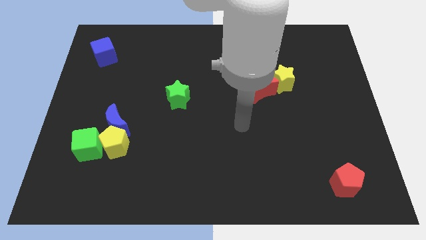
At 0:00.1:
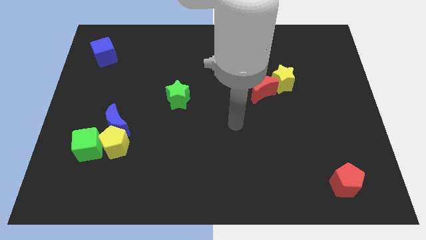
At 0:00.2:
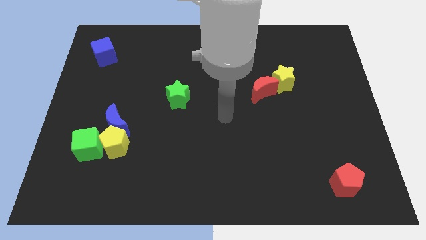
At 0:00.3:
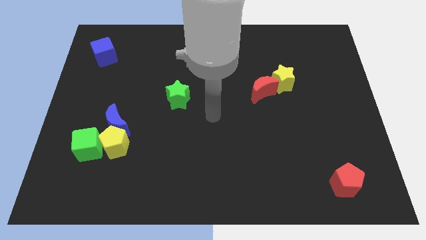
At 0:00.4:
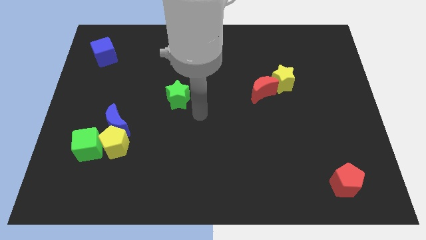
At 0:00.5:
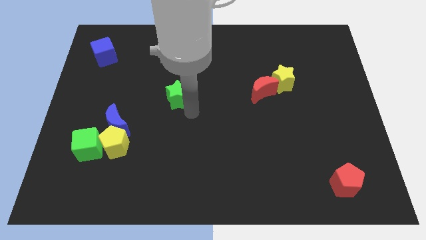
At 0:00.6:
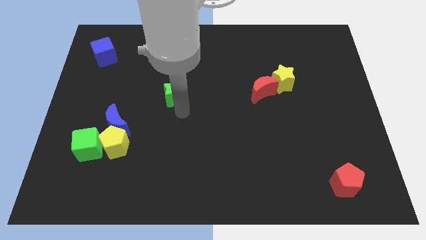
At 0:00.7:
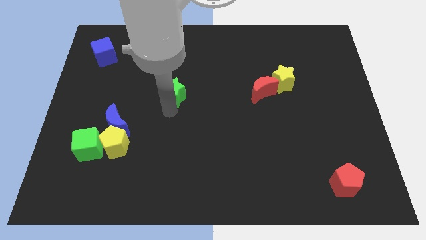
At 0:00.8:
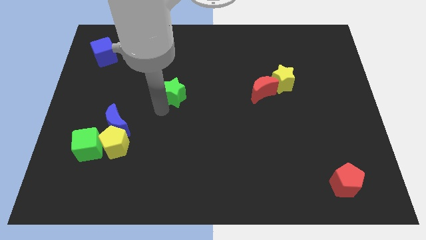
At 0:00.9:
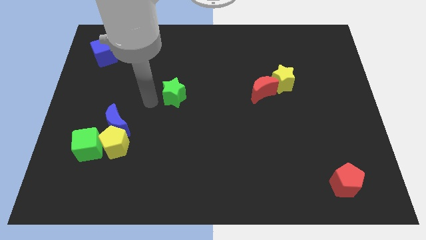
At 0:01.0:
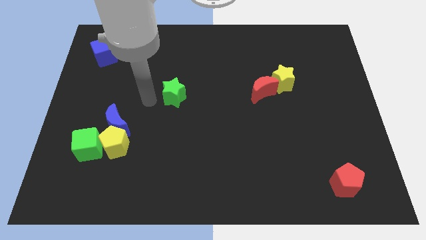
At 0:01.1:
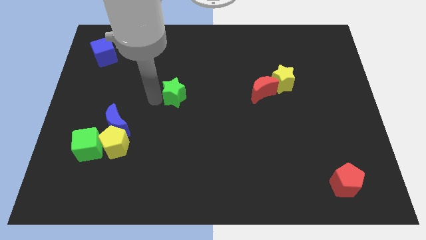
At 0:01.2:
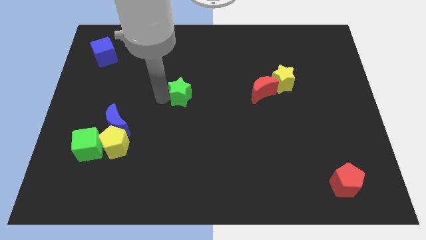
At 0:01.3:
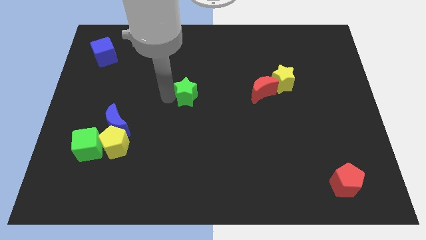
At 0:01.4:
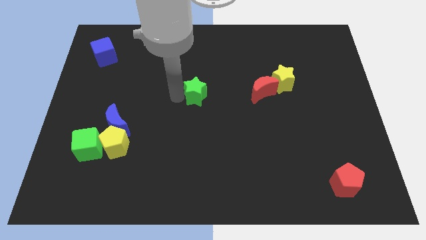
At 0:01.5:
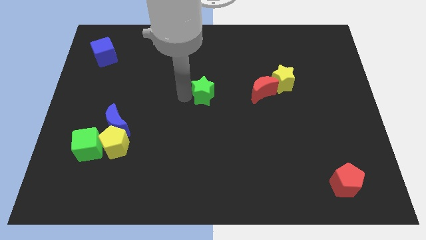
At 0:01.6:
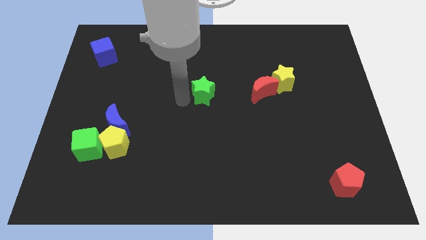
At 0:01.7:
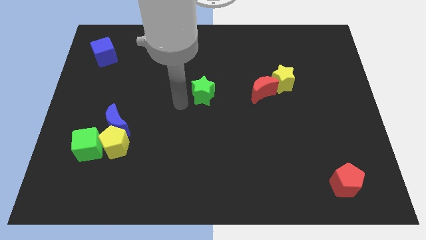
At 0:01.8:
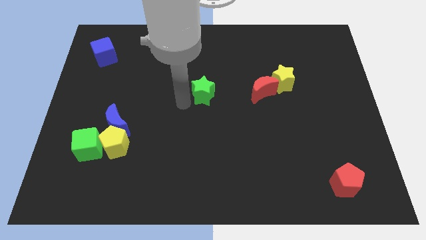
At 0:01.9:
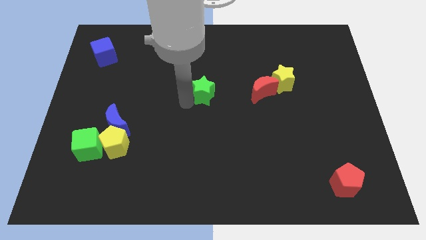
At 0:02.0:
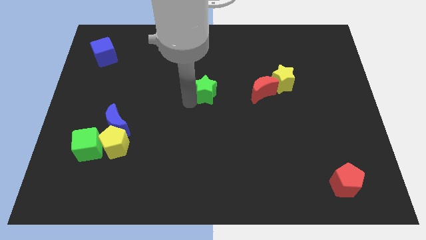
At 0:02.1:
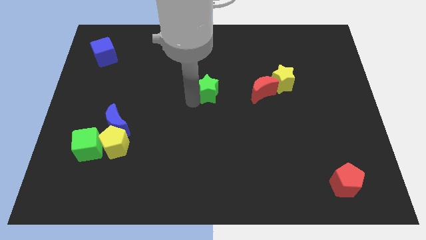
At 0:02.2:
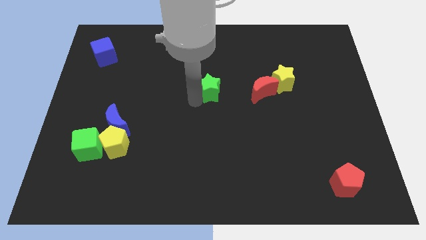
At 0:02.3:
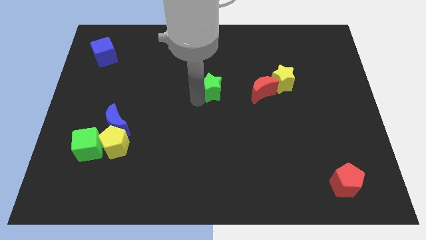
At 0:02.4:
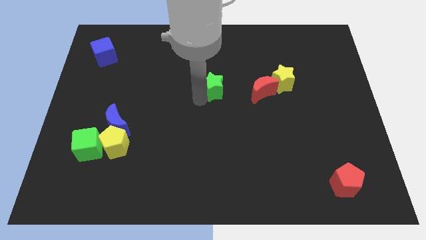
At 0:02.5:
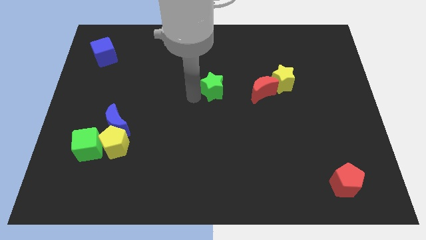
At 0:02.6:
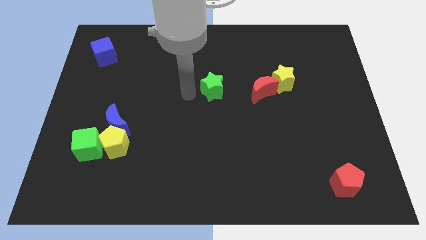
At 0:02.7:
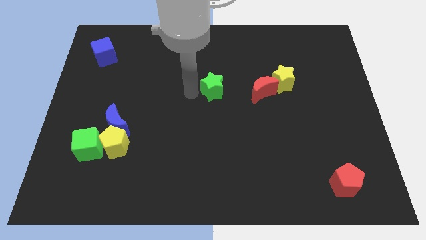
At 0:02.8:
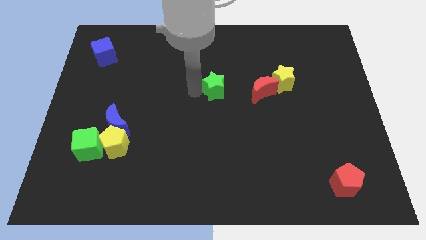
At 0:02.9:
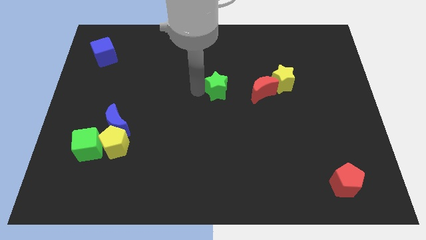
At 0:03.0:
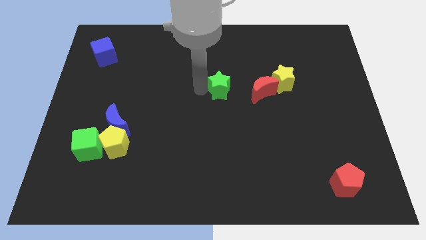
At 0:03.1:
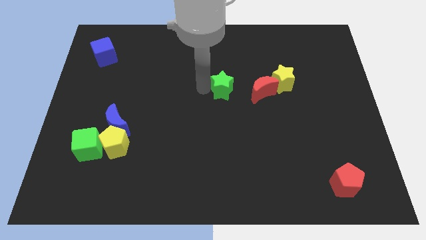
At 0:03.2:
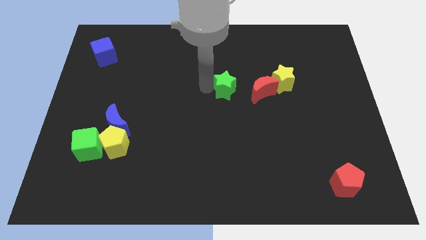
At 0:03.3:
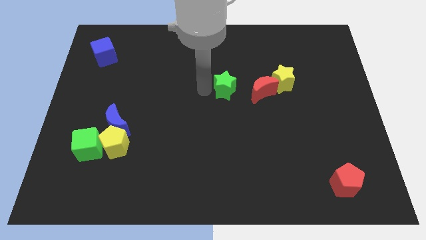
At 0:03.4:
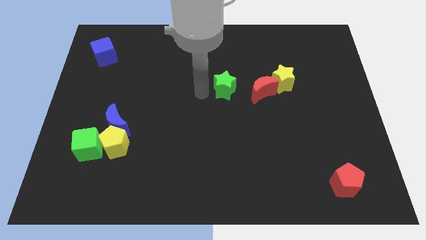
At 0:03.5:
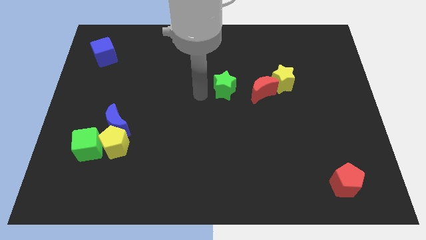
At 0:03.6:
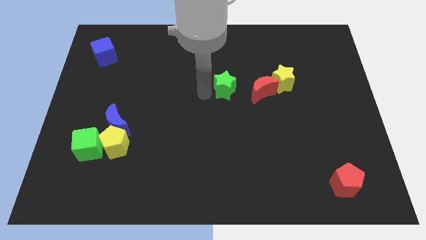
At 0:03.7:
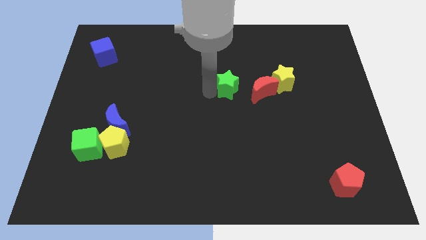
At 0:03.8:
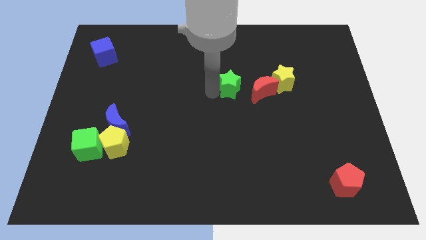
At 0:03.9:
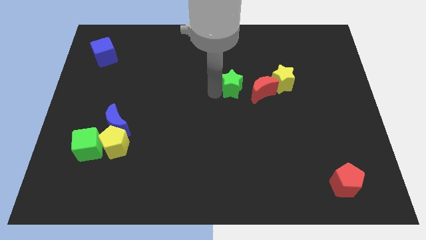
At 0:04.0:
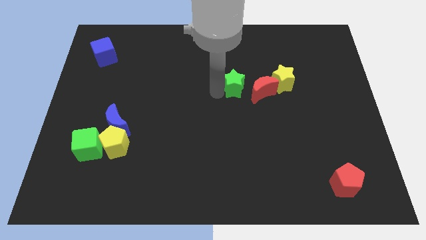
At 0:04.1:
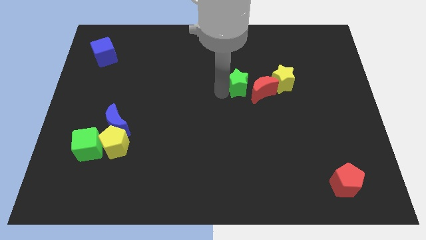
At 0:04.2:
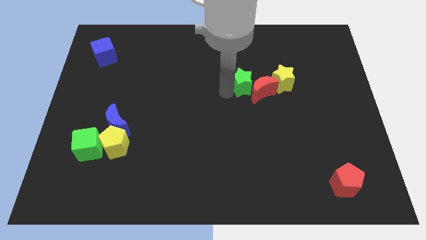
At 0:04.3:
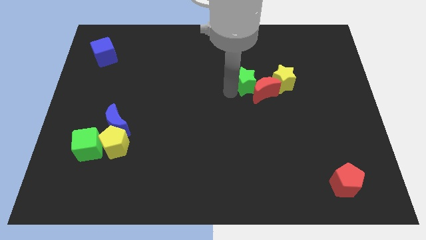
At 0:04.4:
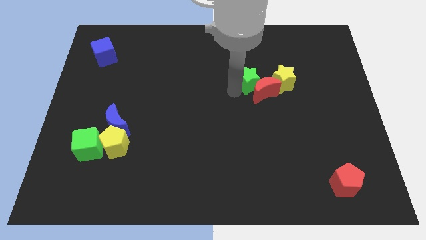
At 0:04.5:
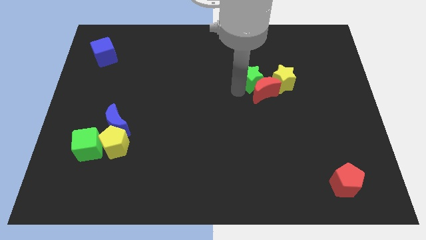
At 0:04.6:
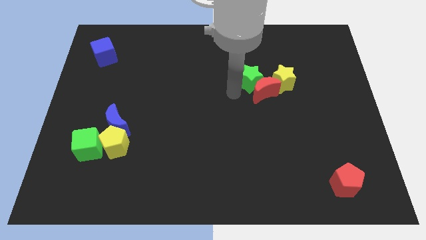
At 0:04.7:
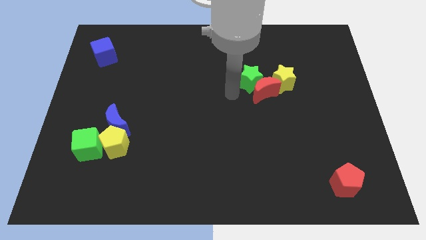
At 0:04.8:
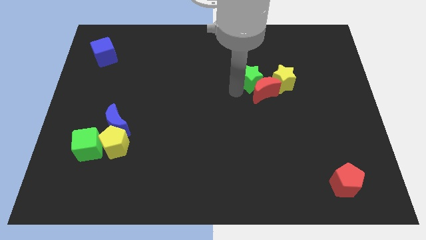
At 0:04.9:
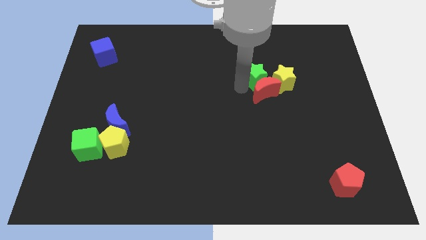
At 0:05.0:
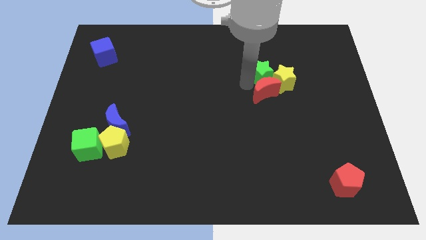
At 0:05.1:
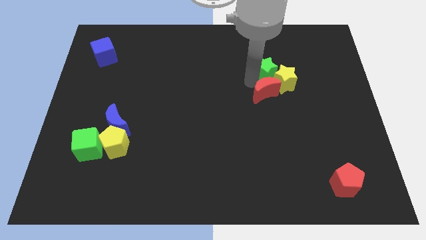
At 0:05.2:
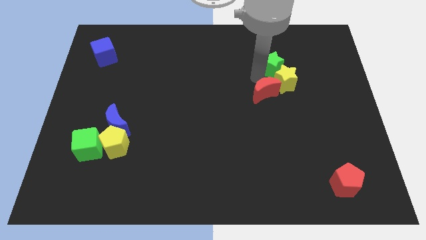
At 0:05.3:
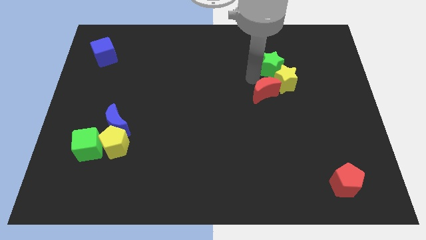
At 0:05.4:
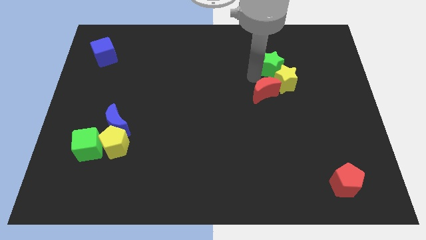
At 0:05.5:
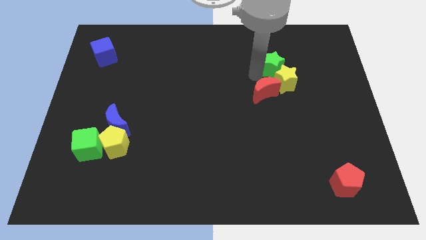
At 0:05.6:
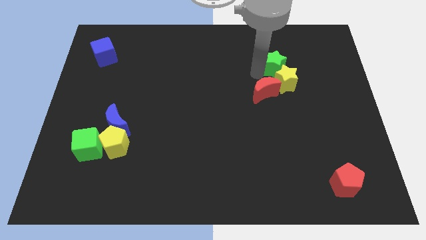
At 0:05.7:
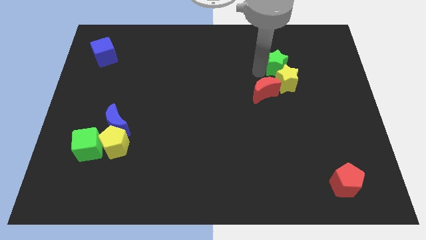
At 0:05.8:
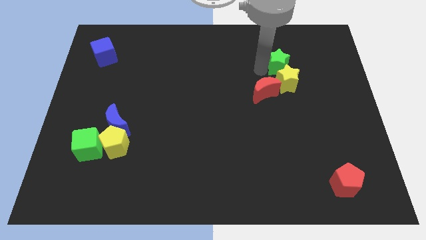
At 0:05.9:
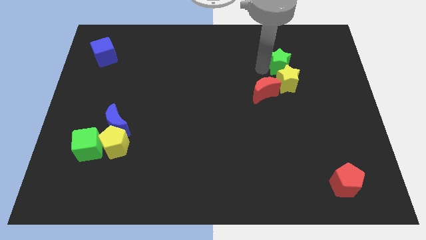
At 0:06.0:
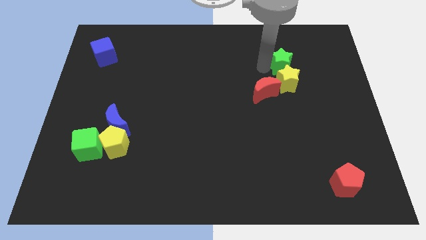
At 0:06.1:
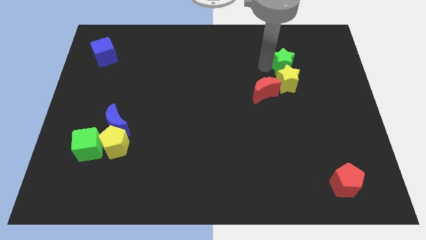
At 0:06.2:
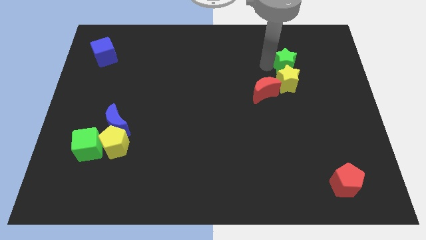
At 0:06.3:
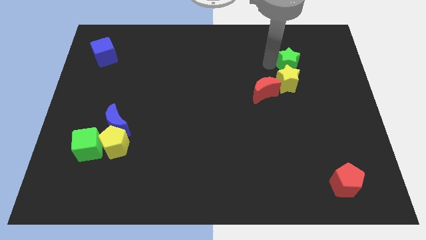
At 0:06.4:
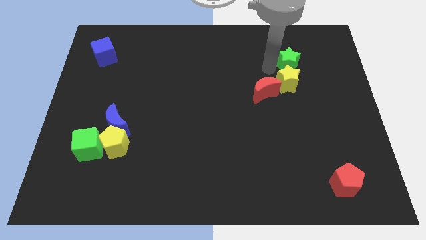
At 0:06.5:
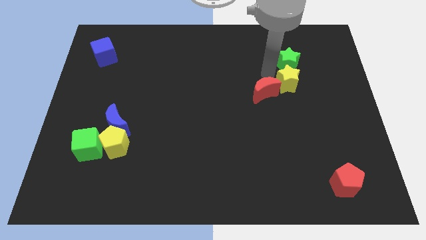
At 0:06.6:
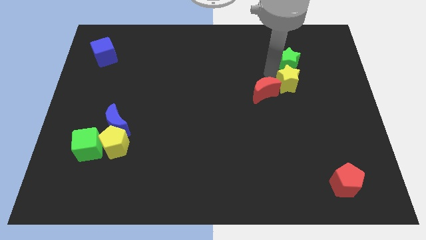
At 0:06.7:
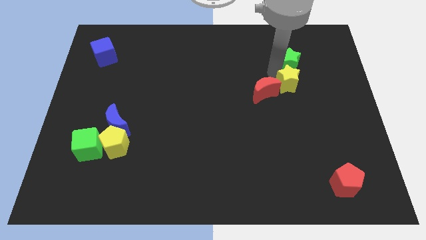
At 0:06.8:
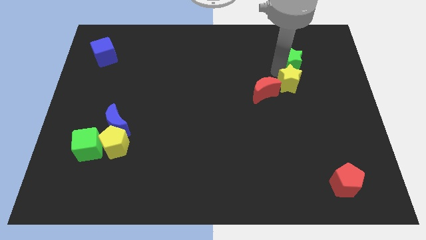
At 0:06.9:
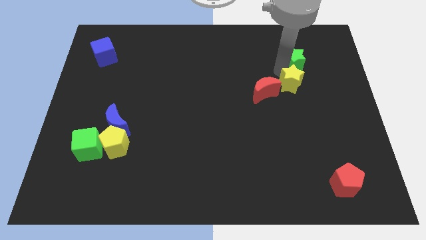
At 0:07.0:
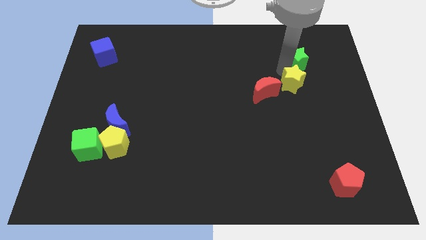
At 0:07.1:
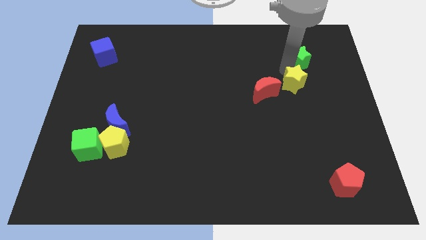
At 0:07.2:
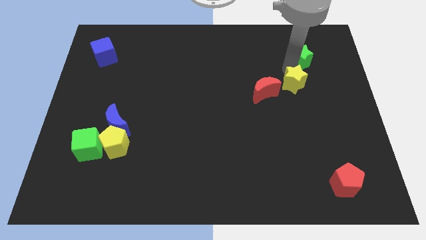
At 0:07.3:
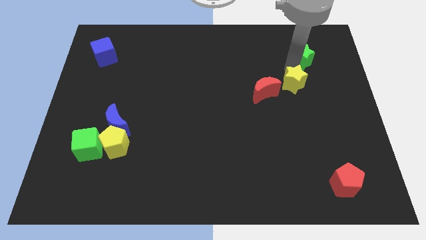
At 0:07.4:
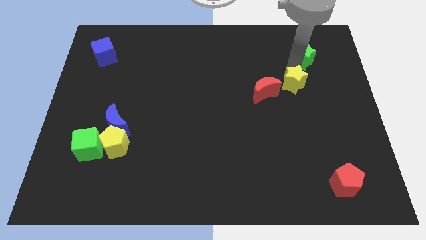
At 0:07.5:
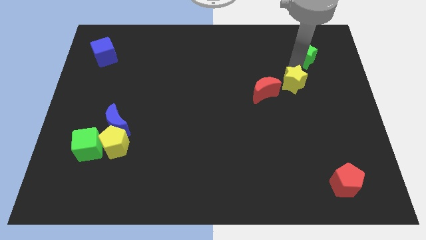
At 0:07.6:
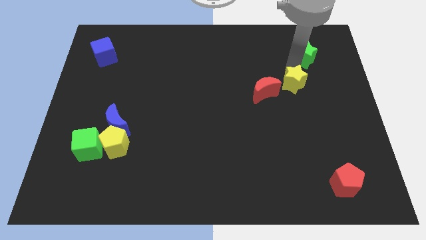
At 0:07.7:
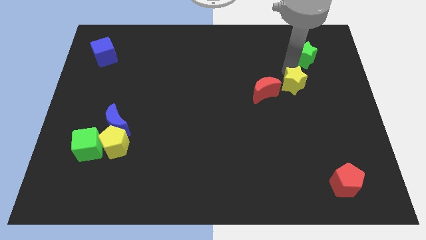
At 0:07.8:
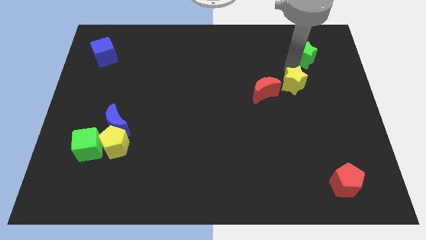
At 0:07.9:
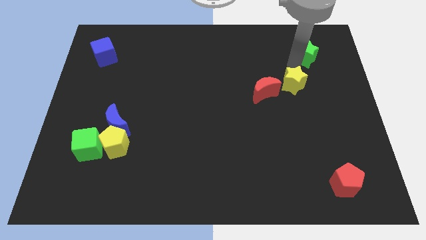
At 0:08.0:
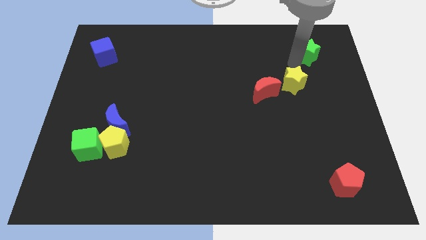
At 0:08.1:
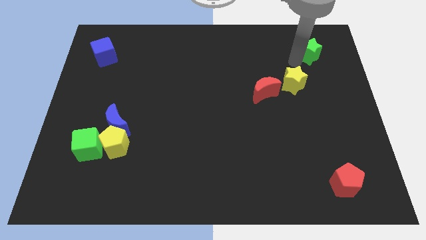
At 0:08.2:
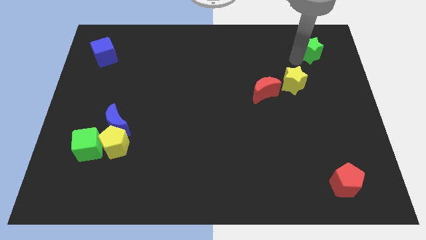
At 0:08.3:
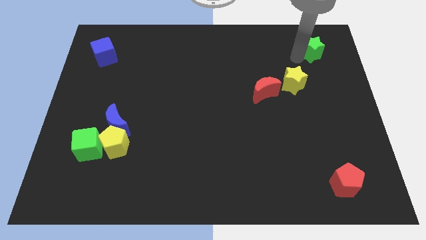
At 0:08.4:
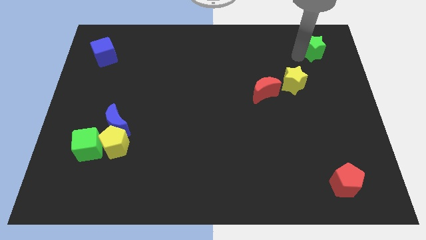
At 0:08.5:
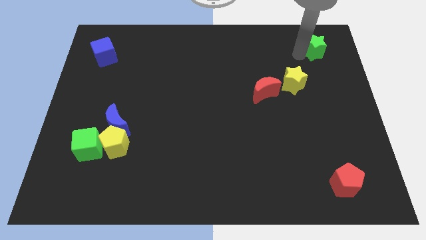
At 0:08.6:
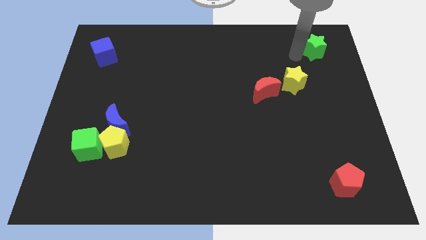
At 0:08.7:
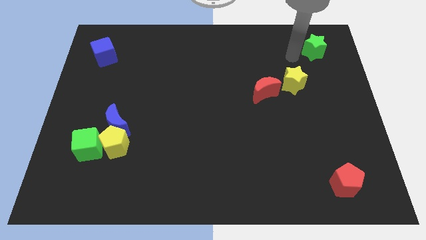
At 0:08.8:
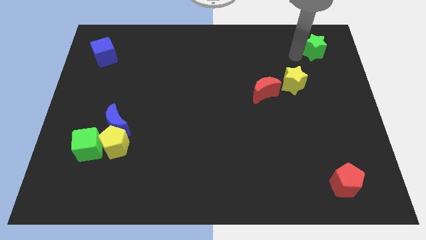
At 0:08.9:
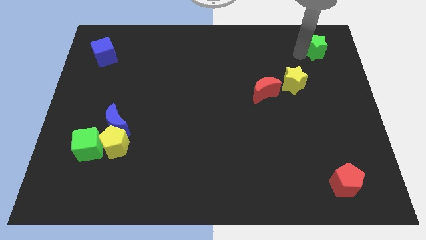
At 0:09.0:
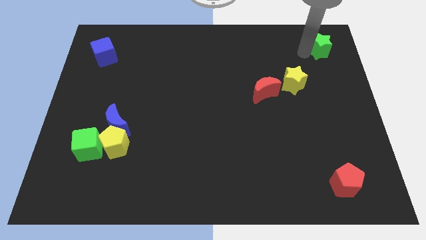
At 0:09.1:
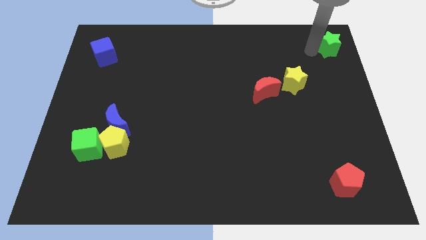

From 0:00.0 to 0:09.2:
slide the green star to the top right of the board
